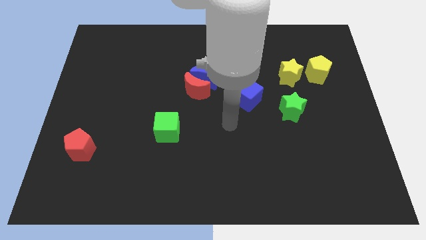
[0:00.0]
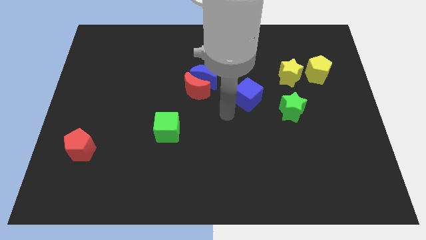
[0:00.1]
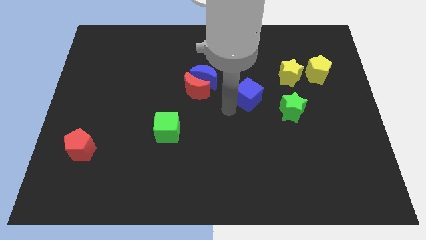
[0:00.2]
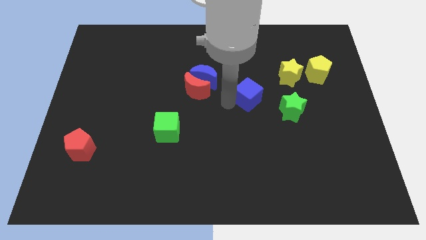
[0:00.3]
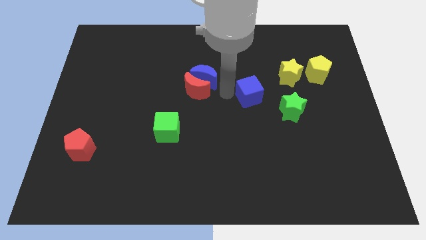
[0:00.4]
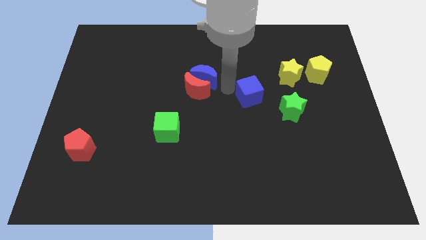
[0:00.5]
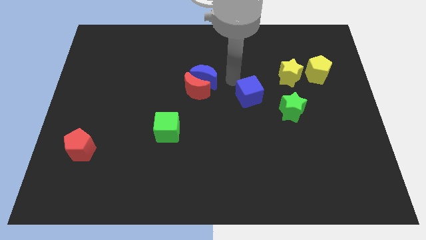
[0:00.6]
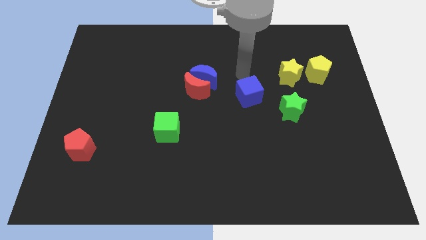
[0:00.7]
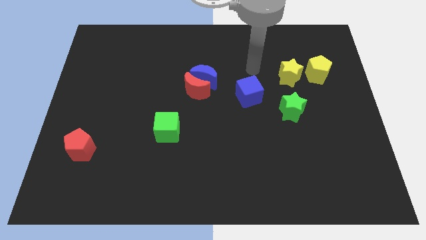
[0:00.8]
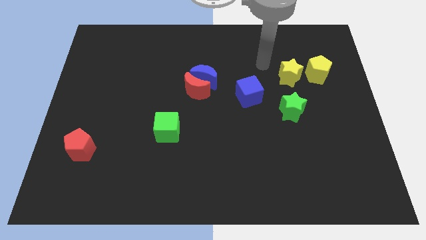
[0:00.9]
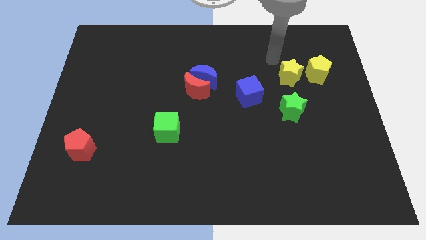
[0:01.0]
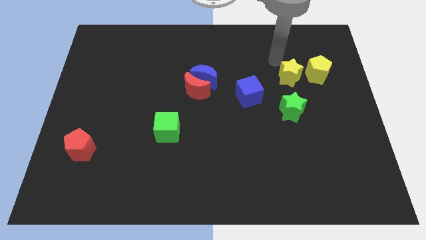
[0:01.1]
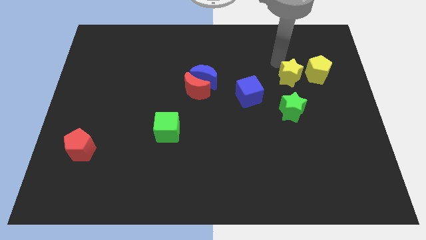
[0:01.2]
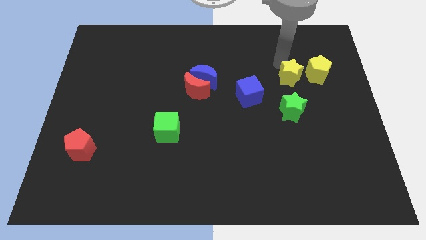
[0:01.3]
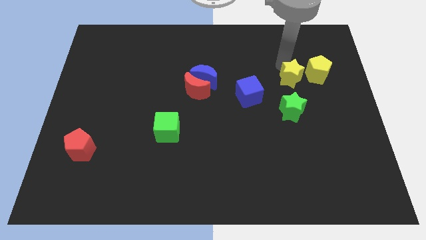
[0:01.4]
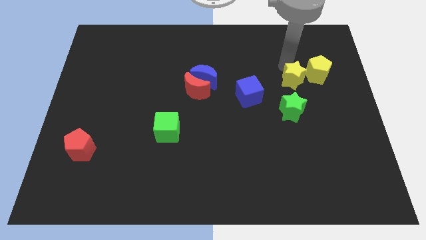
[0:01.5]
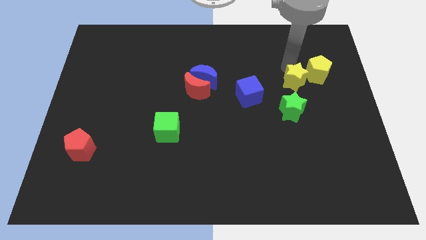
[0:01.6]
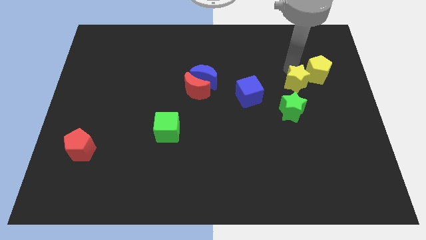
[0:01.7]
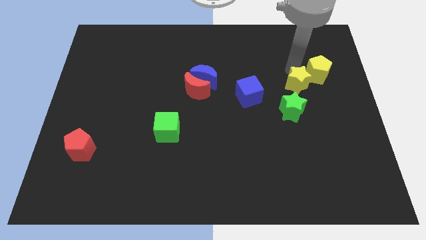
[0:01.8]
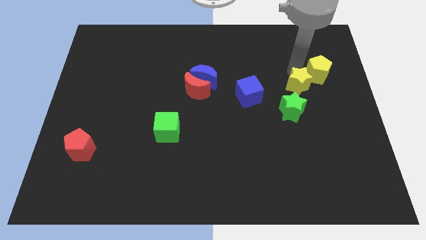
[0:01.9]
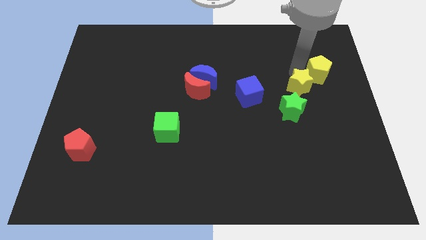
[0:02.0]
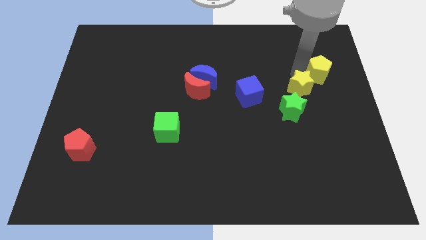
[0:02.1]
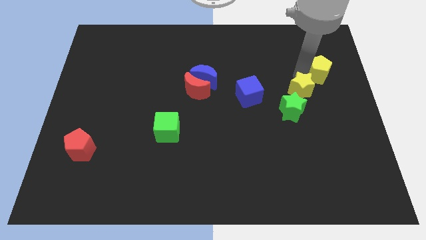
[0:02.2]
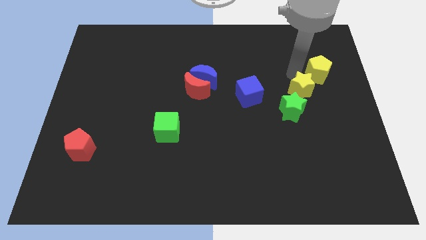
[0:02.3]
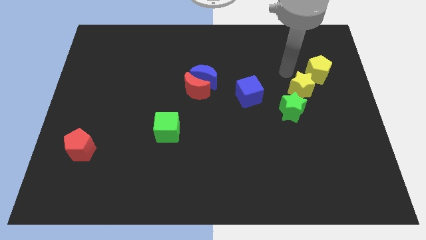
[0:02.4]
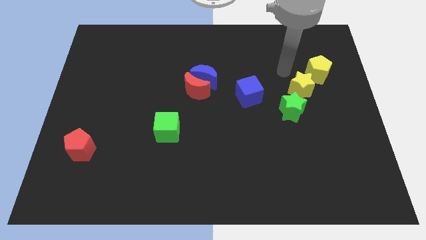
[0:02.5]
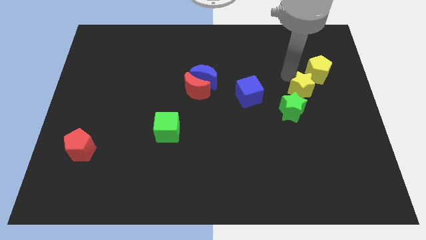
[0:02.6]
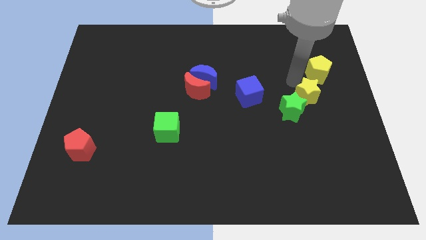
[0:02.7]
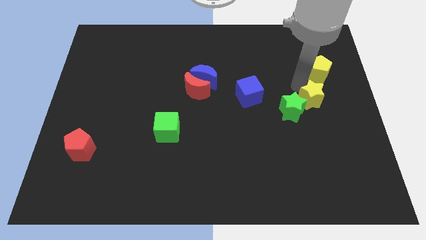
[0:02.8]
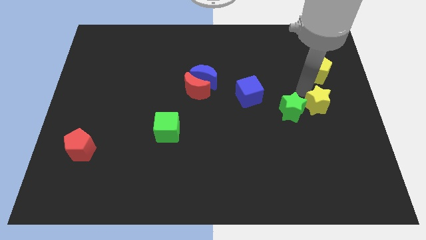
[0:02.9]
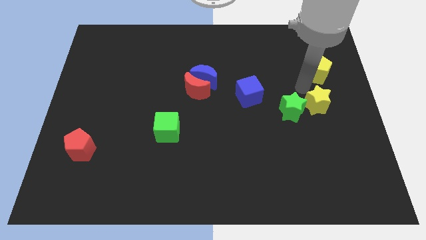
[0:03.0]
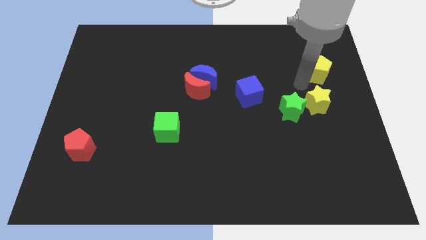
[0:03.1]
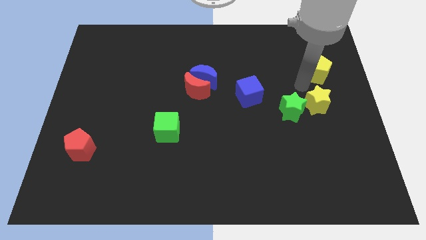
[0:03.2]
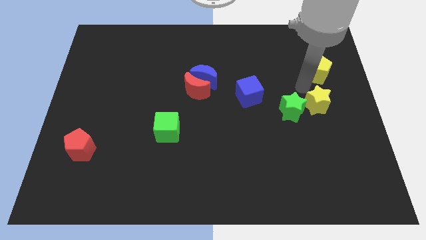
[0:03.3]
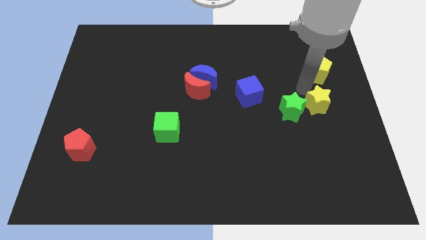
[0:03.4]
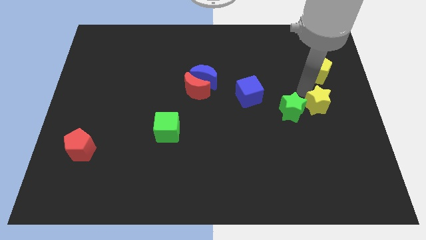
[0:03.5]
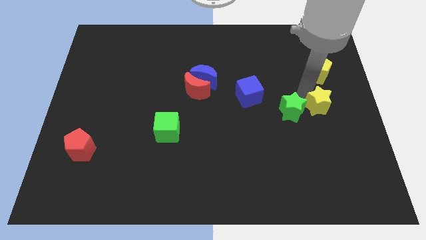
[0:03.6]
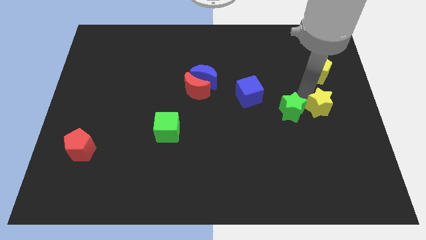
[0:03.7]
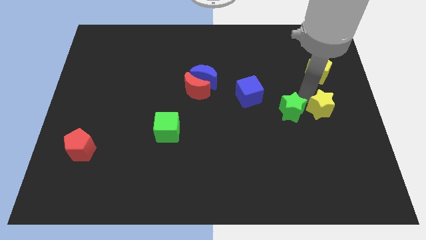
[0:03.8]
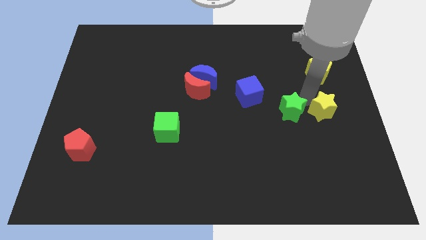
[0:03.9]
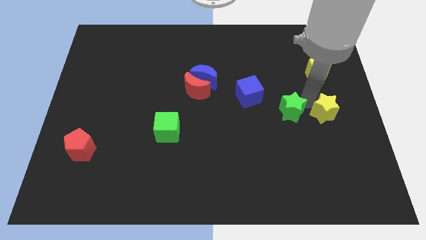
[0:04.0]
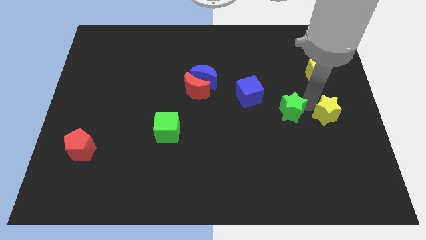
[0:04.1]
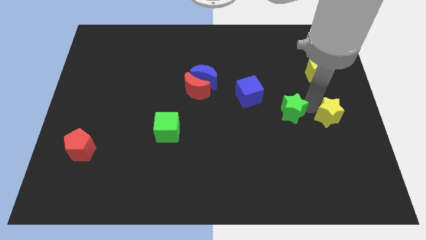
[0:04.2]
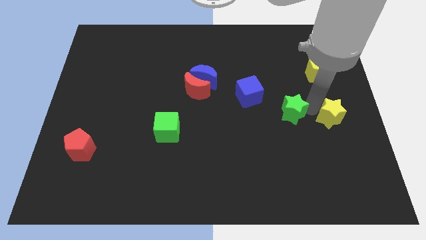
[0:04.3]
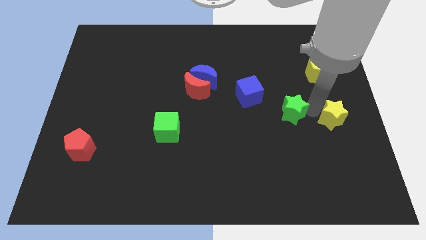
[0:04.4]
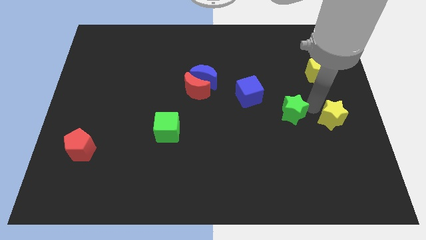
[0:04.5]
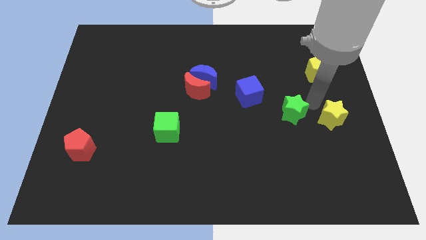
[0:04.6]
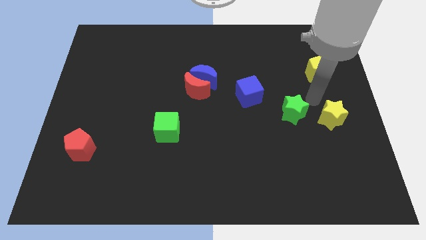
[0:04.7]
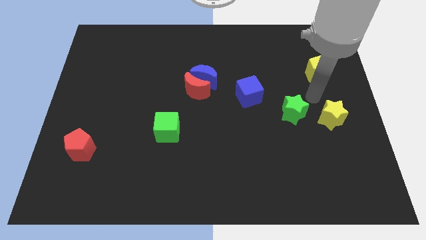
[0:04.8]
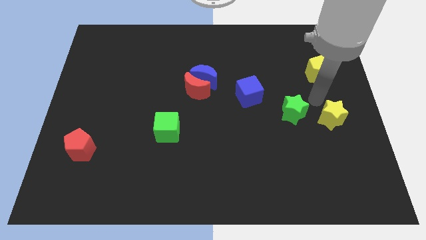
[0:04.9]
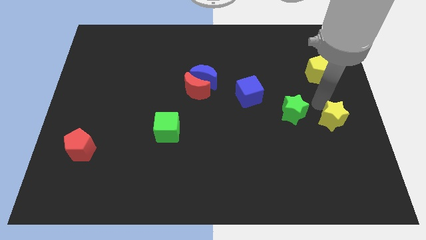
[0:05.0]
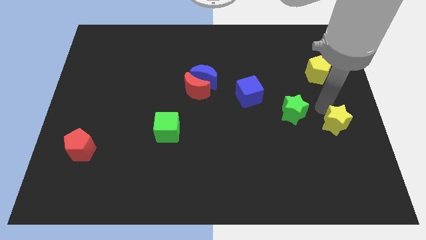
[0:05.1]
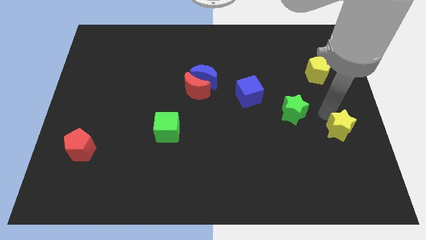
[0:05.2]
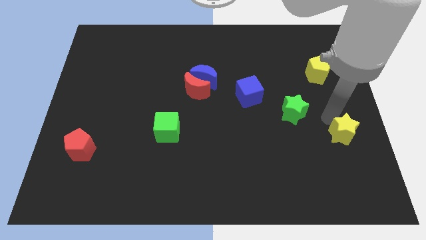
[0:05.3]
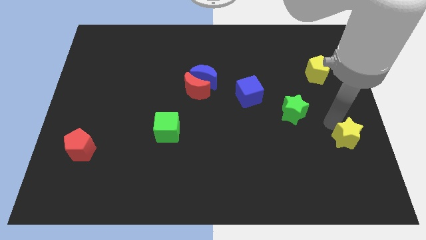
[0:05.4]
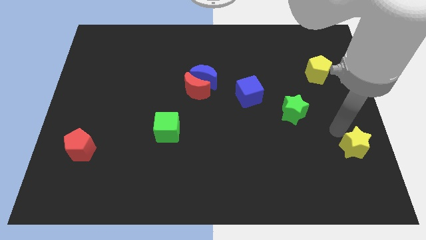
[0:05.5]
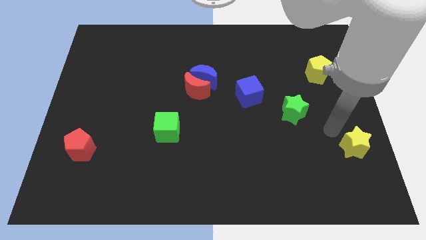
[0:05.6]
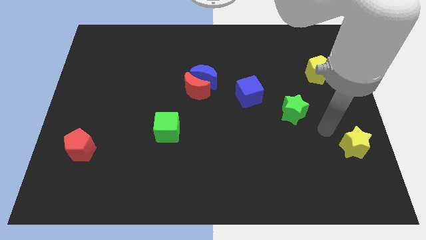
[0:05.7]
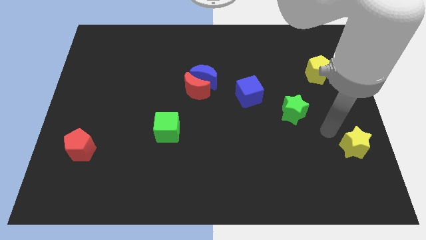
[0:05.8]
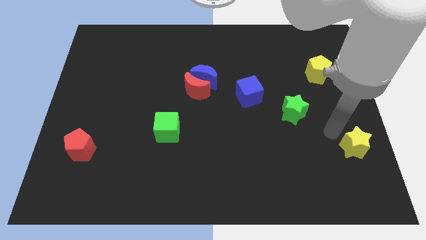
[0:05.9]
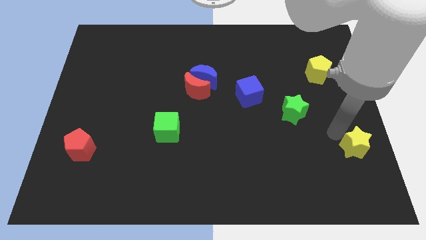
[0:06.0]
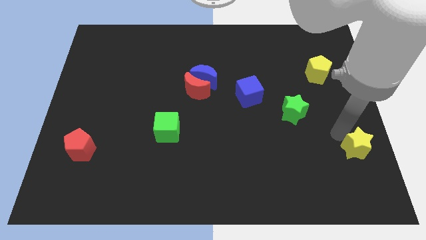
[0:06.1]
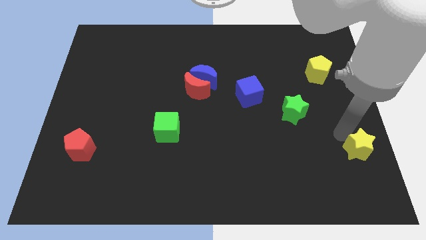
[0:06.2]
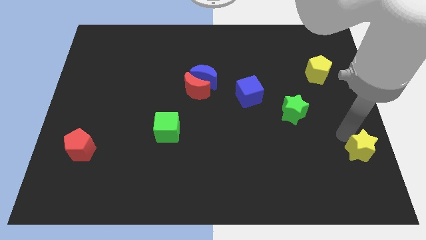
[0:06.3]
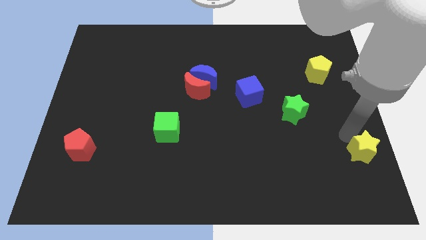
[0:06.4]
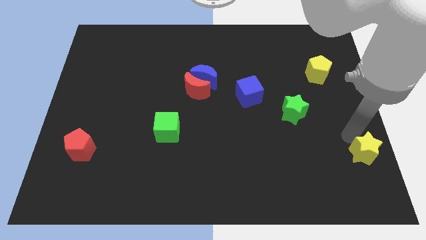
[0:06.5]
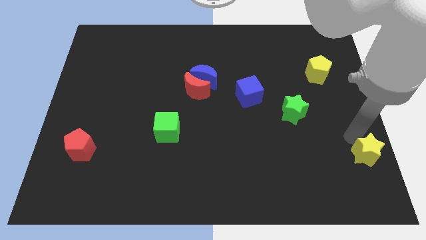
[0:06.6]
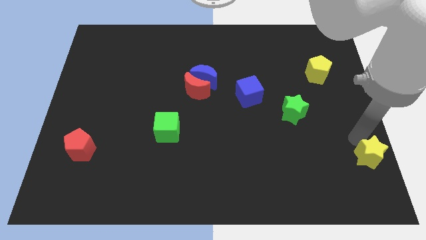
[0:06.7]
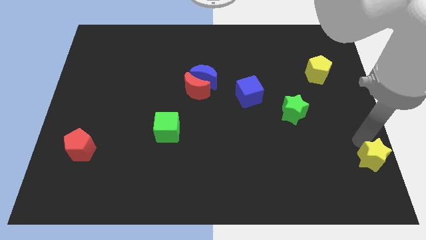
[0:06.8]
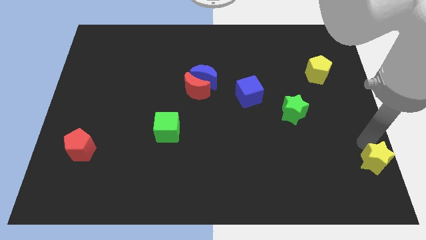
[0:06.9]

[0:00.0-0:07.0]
push the yellow star to the lower right corner
